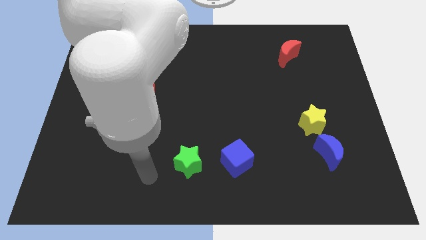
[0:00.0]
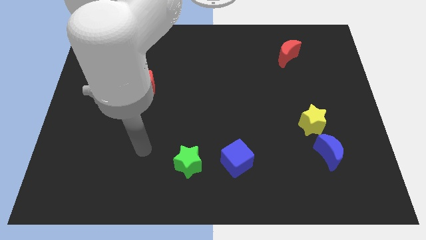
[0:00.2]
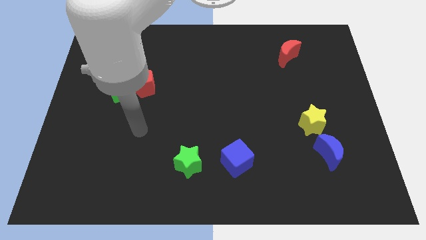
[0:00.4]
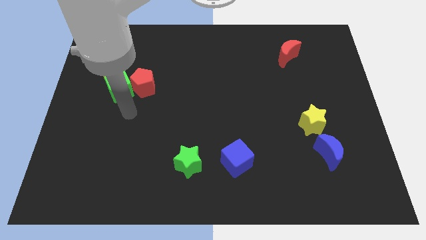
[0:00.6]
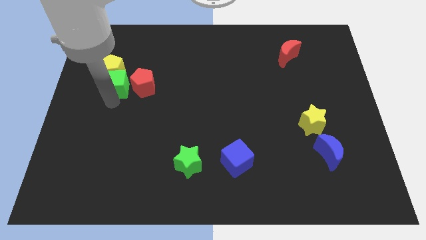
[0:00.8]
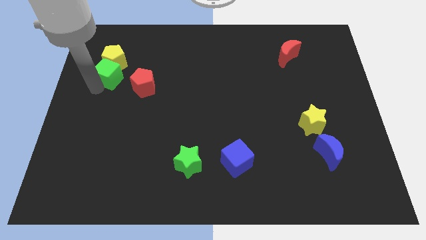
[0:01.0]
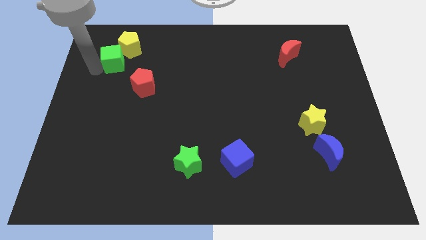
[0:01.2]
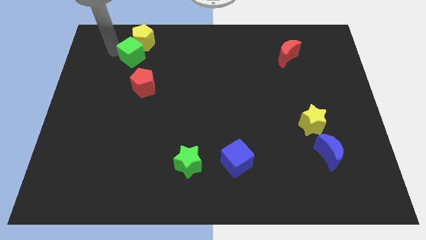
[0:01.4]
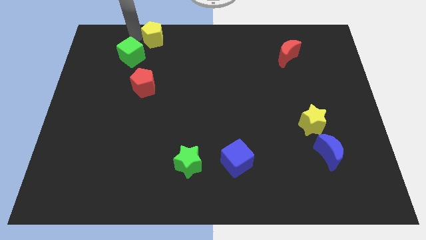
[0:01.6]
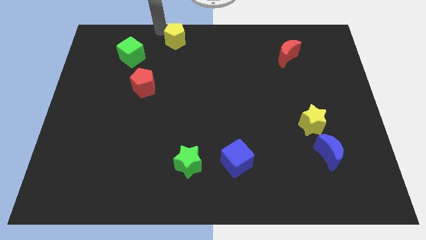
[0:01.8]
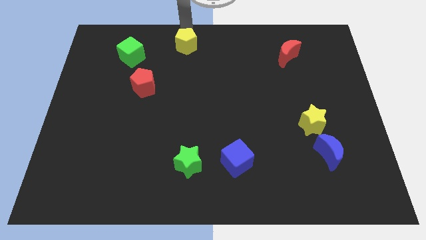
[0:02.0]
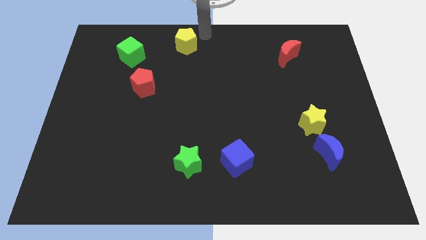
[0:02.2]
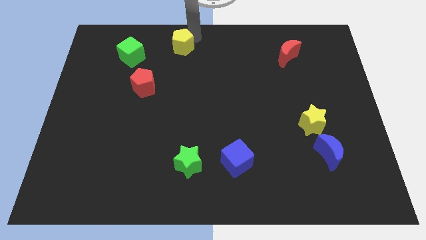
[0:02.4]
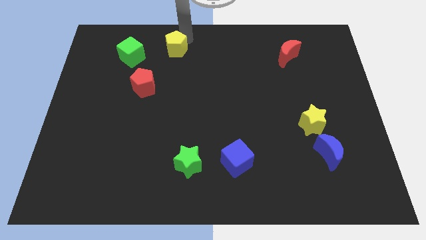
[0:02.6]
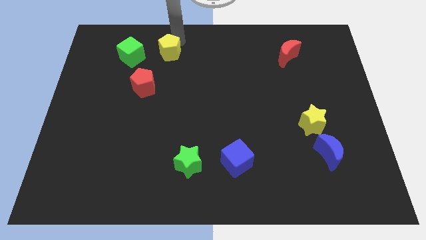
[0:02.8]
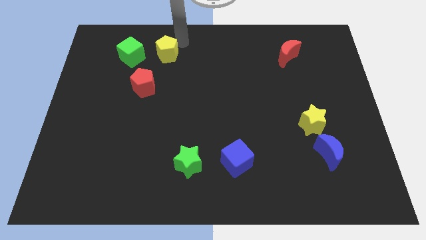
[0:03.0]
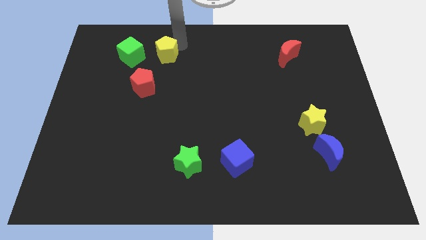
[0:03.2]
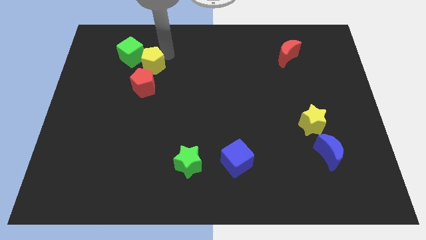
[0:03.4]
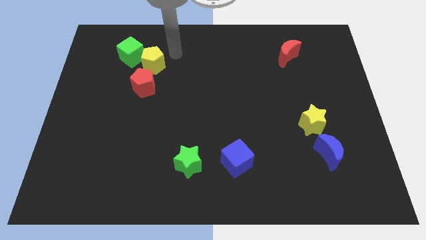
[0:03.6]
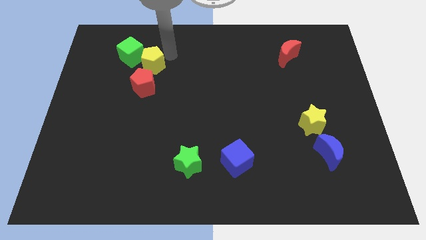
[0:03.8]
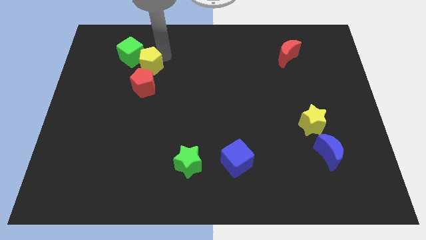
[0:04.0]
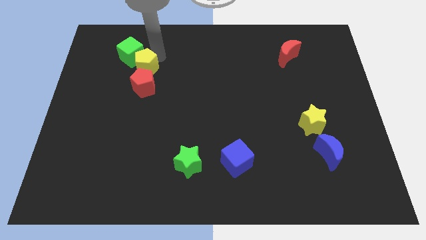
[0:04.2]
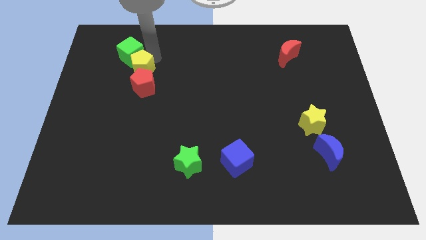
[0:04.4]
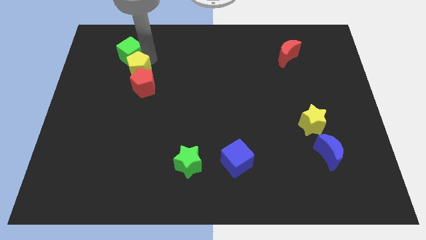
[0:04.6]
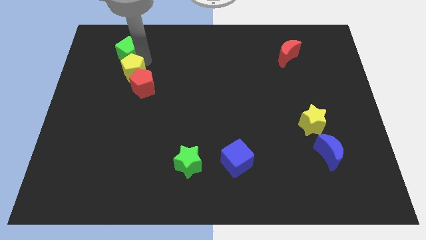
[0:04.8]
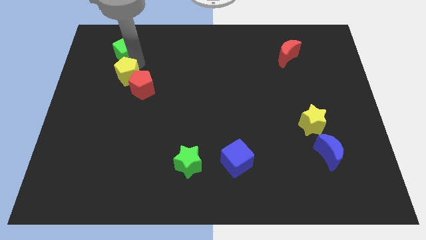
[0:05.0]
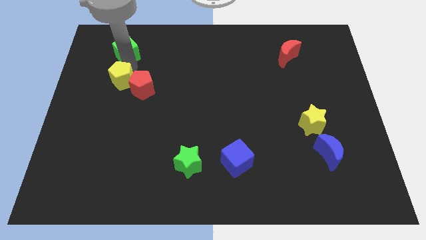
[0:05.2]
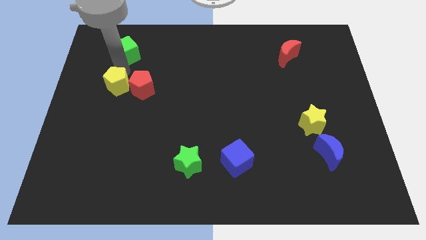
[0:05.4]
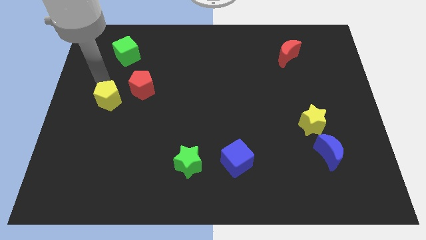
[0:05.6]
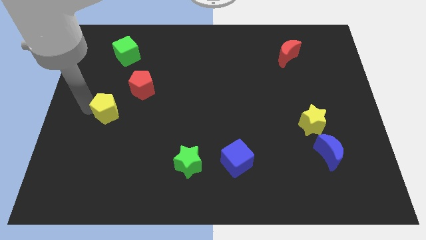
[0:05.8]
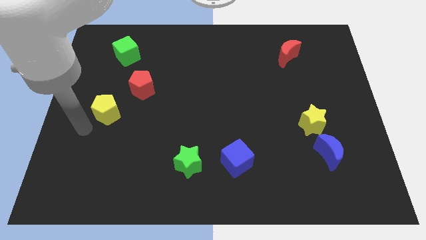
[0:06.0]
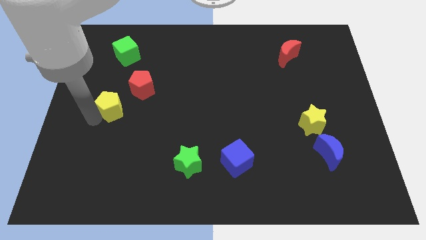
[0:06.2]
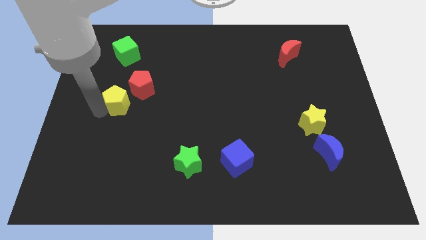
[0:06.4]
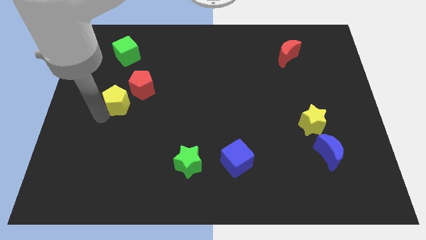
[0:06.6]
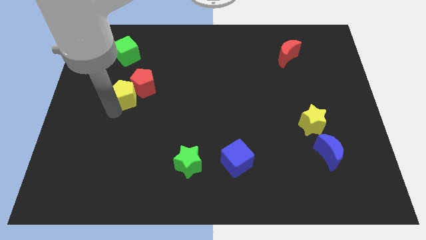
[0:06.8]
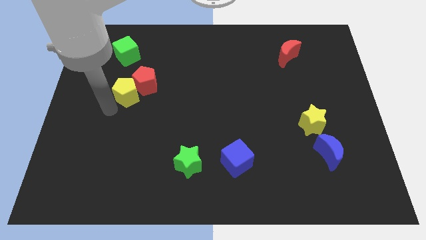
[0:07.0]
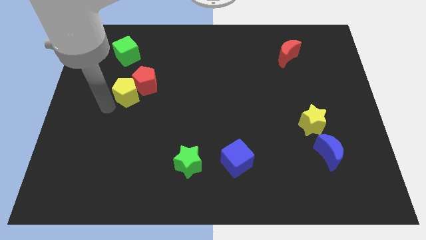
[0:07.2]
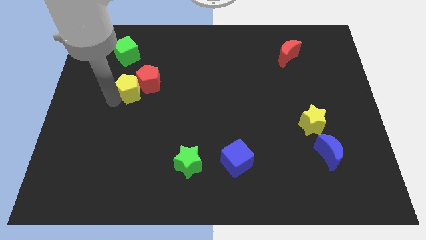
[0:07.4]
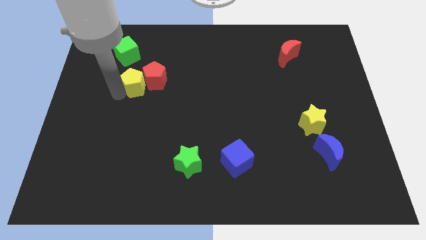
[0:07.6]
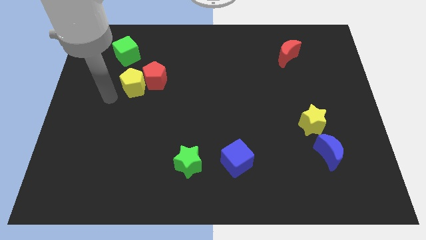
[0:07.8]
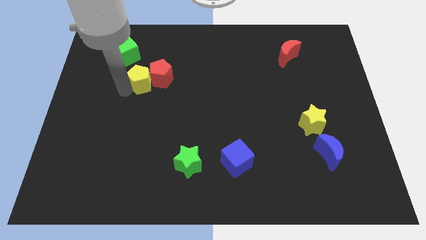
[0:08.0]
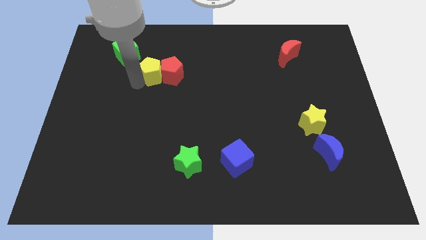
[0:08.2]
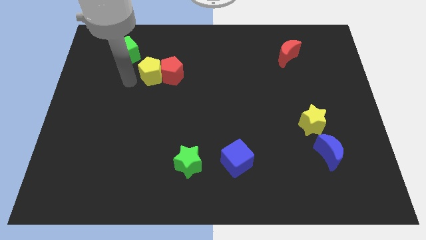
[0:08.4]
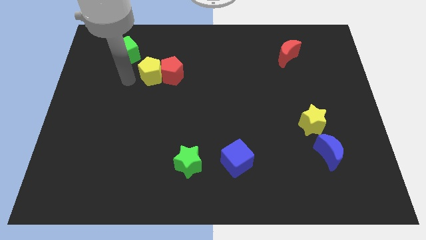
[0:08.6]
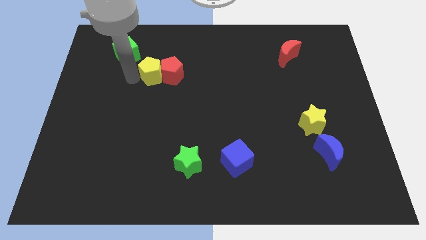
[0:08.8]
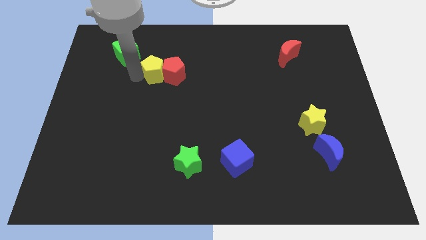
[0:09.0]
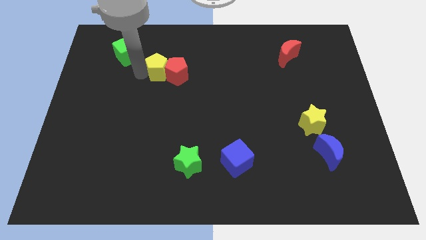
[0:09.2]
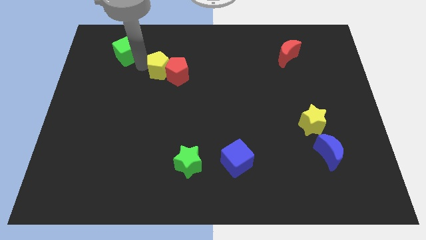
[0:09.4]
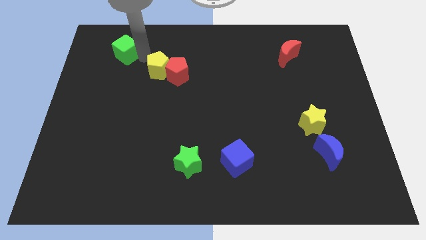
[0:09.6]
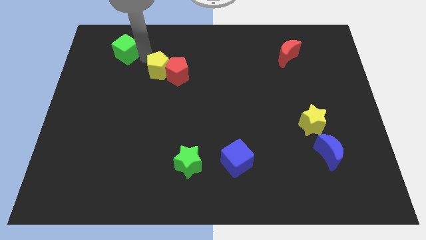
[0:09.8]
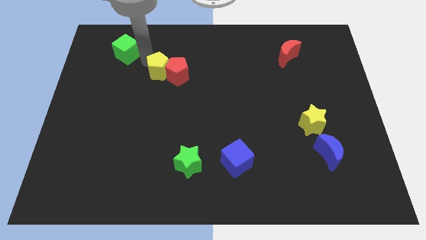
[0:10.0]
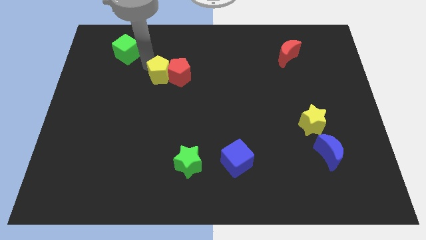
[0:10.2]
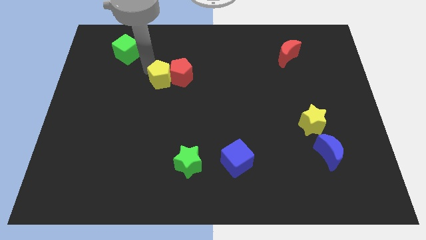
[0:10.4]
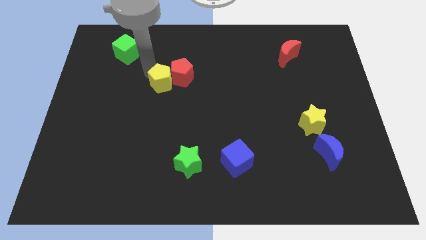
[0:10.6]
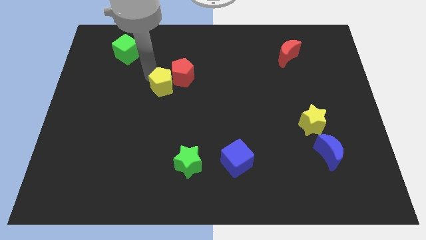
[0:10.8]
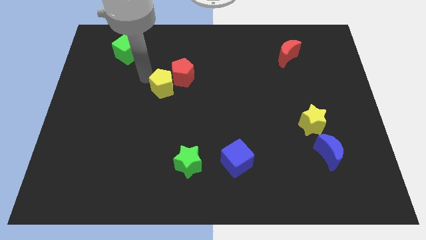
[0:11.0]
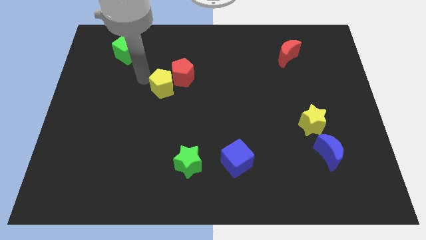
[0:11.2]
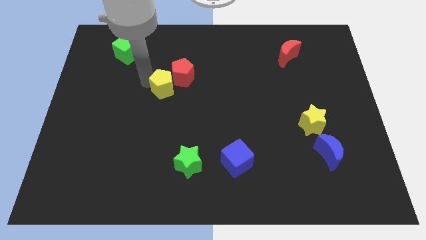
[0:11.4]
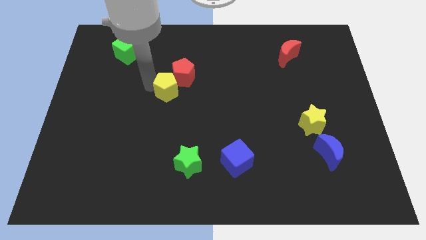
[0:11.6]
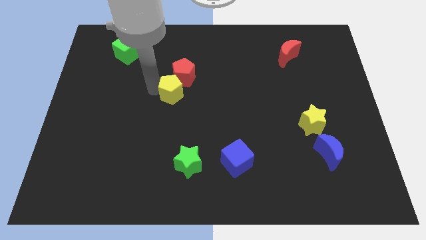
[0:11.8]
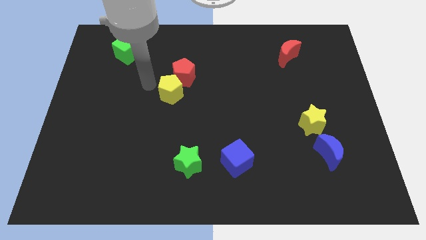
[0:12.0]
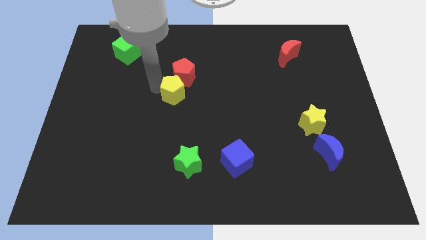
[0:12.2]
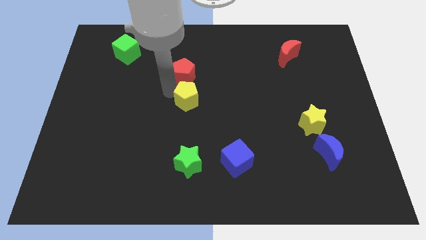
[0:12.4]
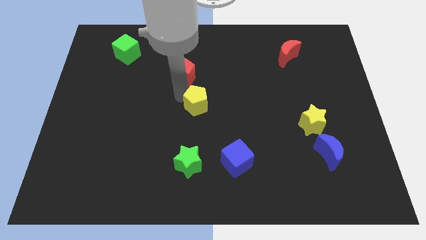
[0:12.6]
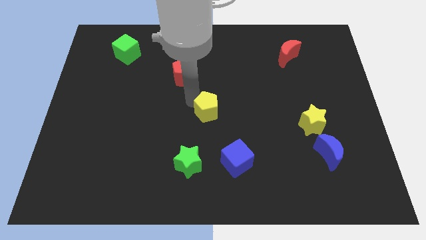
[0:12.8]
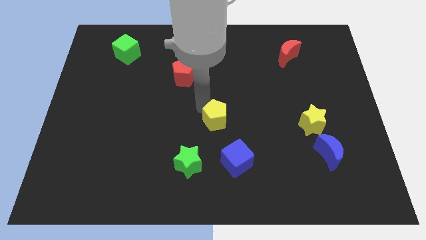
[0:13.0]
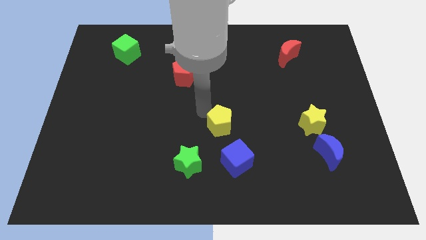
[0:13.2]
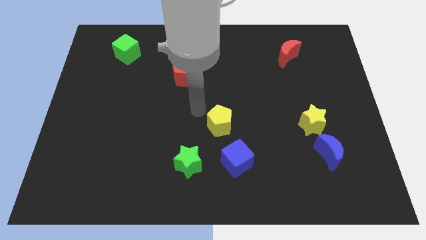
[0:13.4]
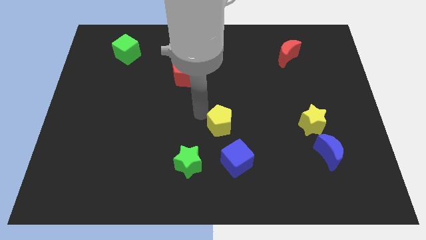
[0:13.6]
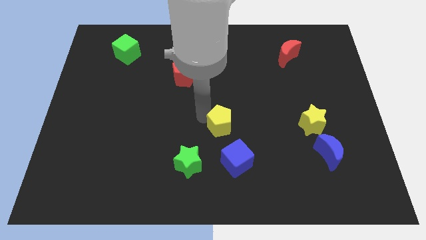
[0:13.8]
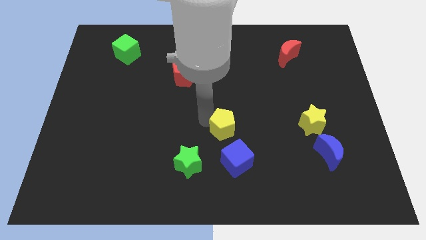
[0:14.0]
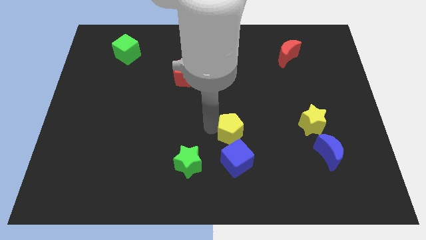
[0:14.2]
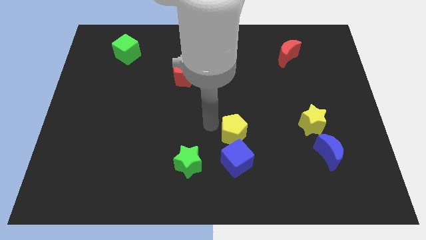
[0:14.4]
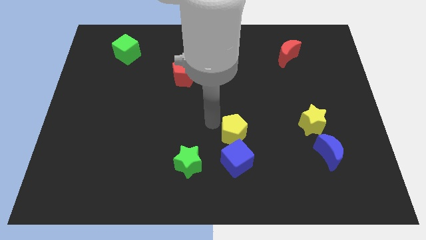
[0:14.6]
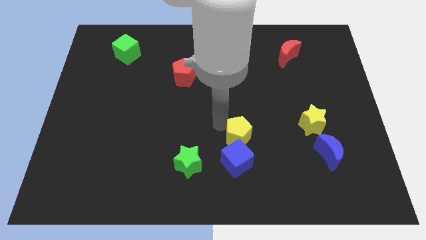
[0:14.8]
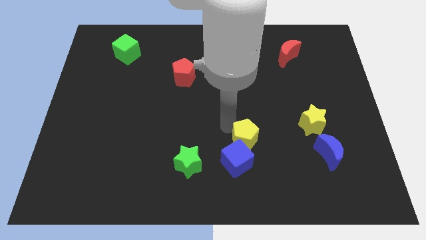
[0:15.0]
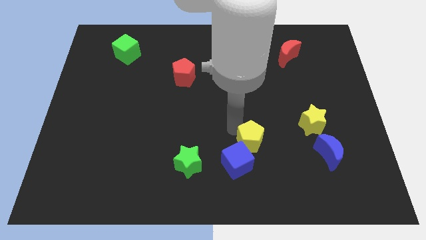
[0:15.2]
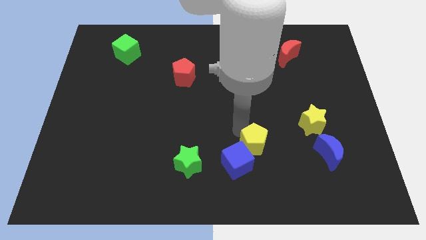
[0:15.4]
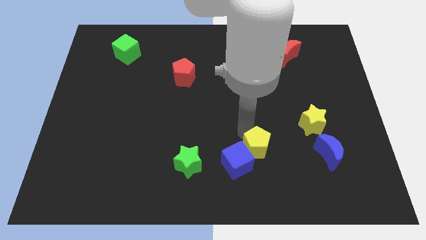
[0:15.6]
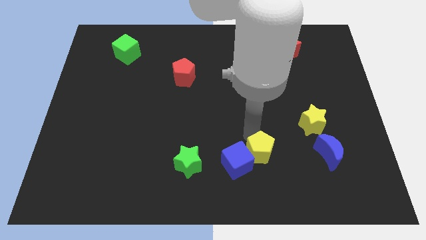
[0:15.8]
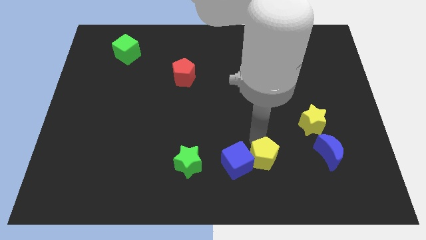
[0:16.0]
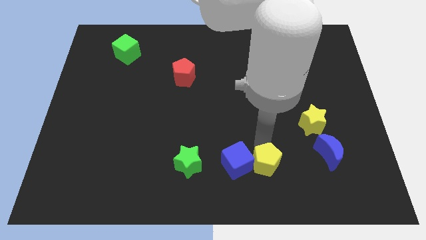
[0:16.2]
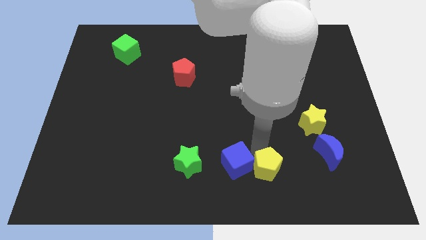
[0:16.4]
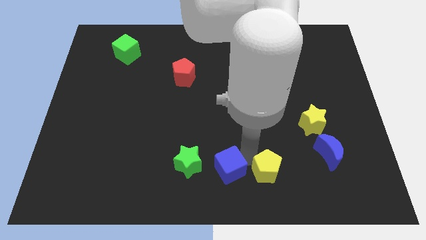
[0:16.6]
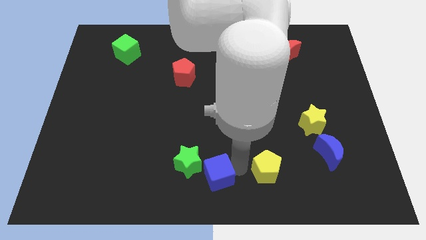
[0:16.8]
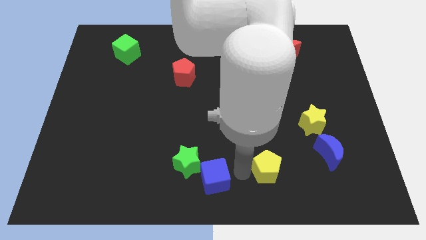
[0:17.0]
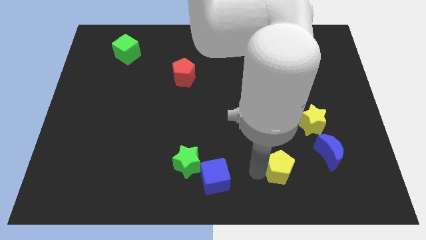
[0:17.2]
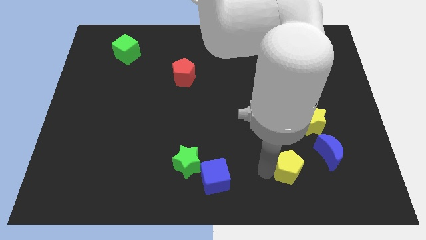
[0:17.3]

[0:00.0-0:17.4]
slide the yellow pentagon diagonally down and to the left of the blue moon
